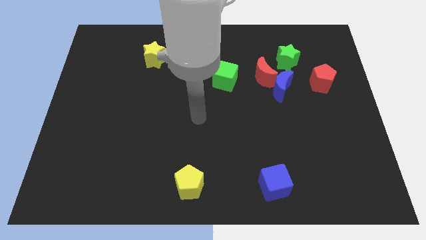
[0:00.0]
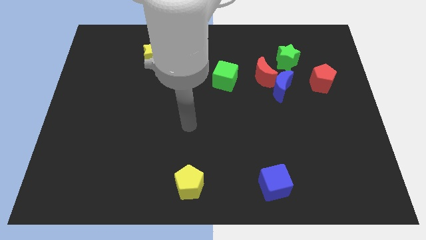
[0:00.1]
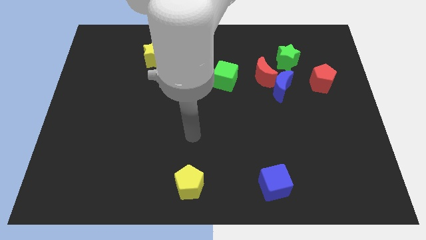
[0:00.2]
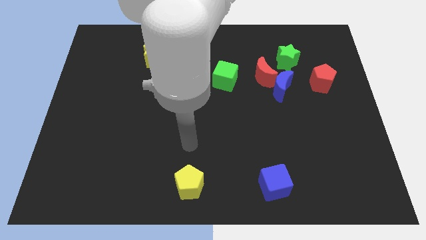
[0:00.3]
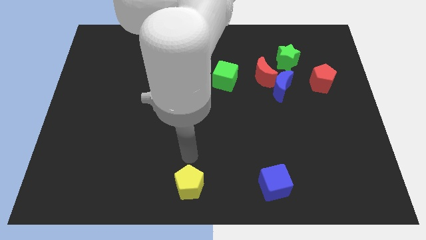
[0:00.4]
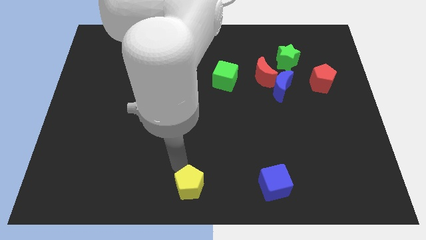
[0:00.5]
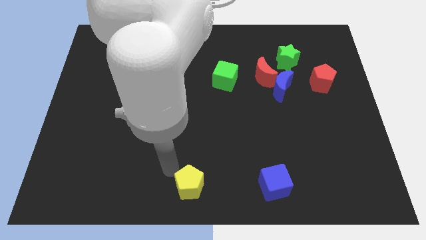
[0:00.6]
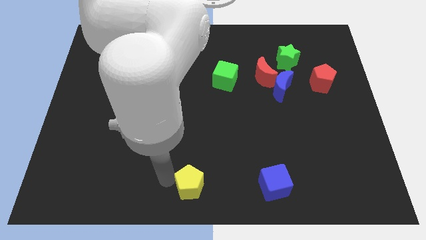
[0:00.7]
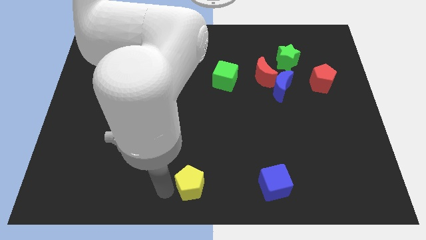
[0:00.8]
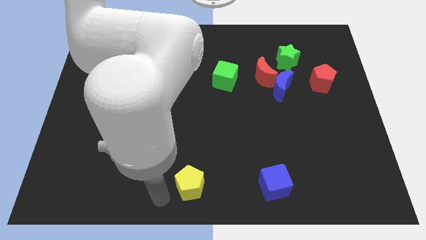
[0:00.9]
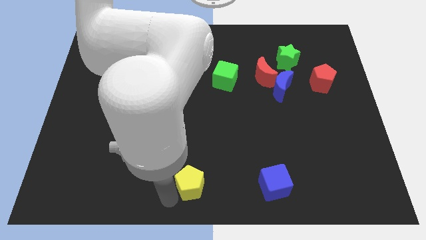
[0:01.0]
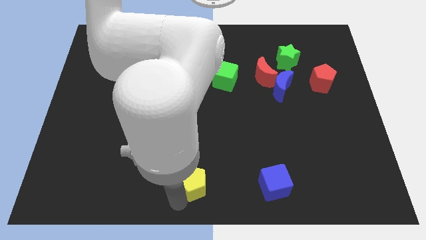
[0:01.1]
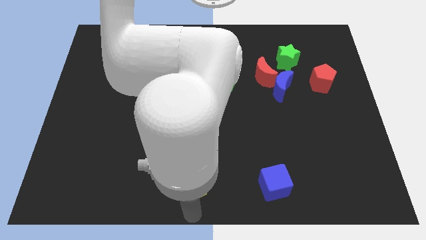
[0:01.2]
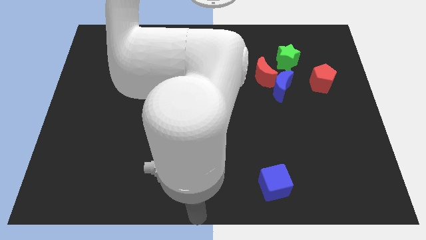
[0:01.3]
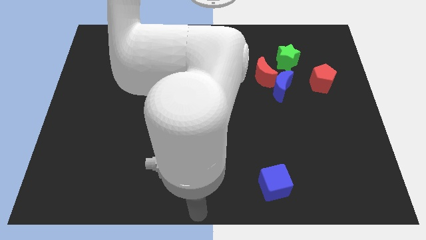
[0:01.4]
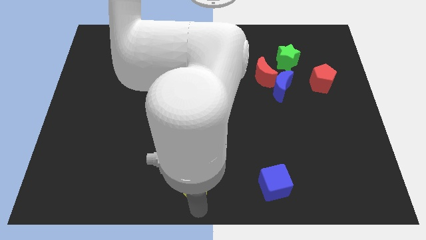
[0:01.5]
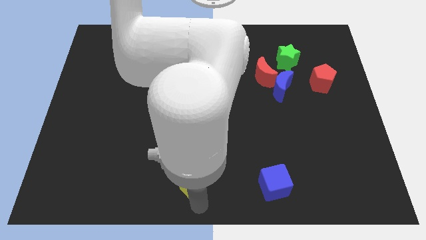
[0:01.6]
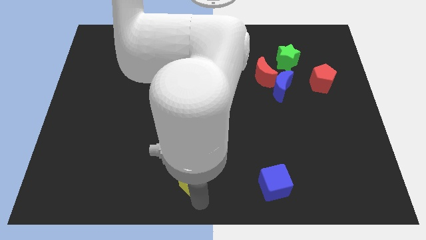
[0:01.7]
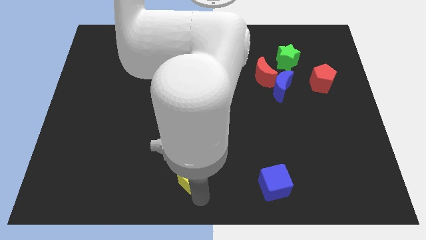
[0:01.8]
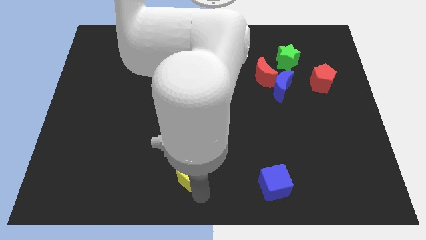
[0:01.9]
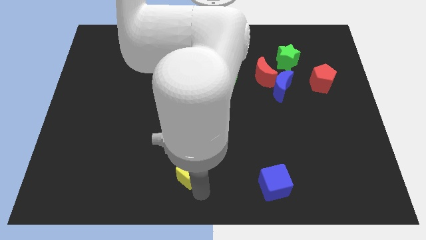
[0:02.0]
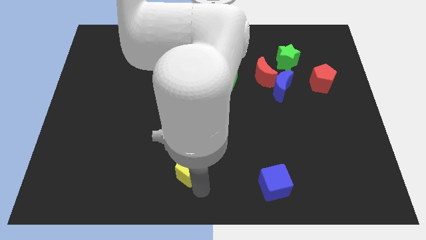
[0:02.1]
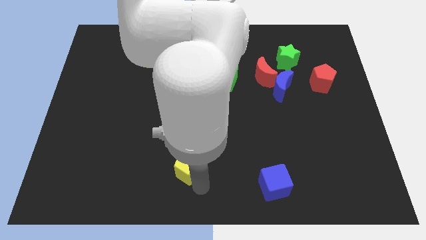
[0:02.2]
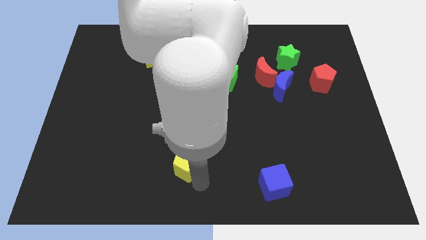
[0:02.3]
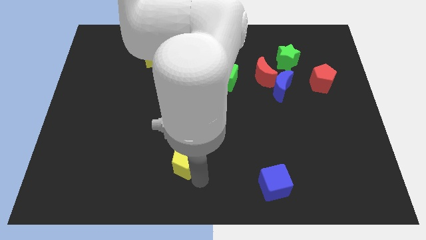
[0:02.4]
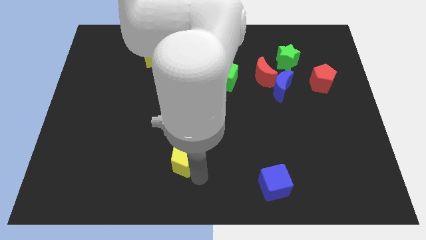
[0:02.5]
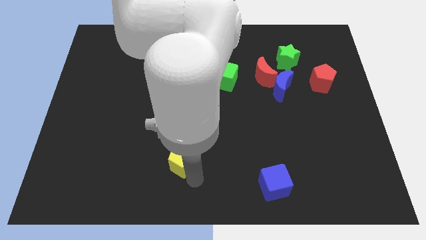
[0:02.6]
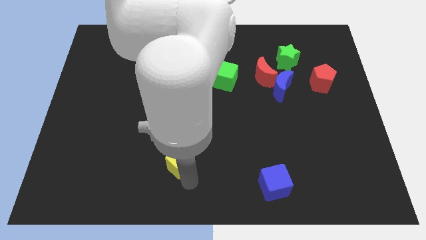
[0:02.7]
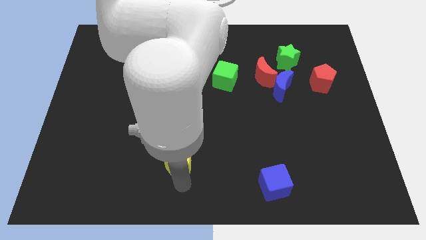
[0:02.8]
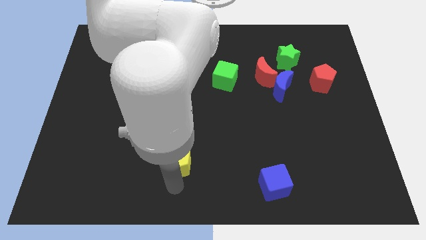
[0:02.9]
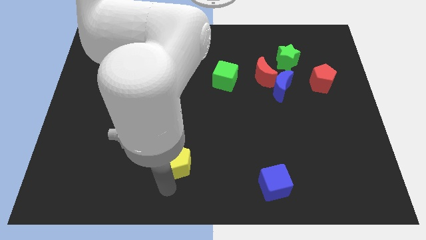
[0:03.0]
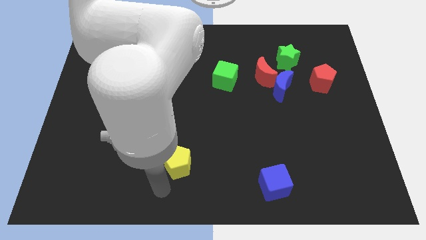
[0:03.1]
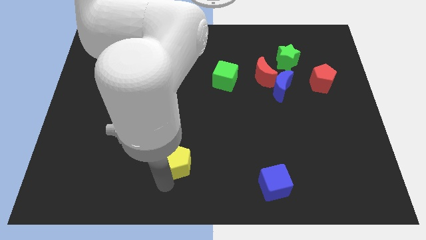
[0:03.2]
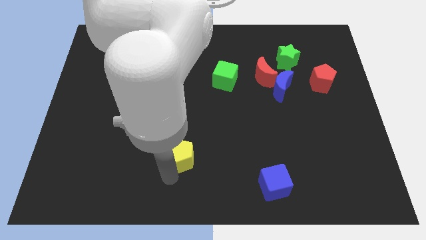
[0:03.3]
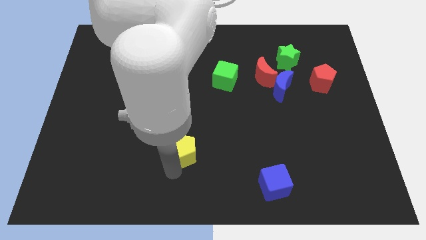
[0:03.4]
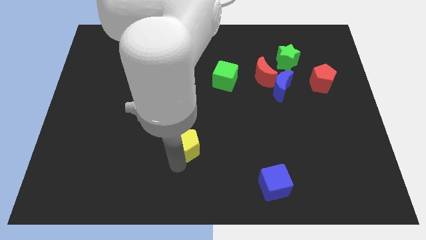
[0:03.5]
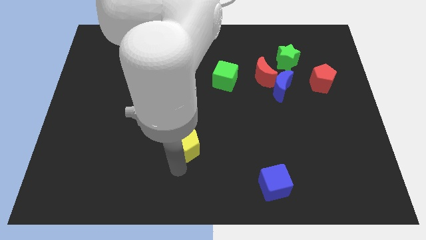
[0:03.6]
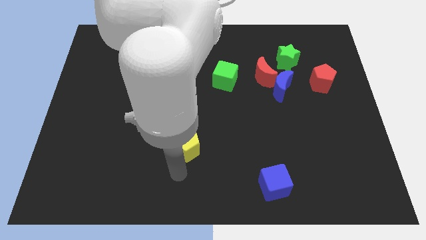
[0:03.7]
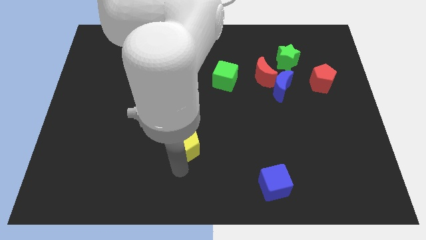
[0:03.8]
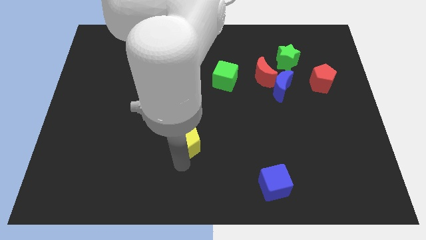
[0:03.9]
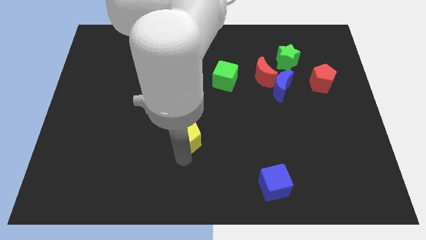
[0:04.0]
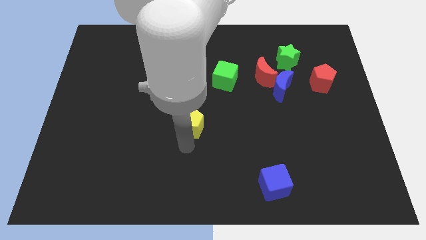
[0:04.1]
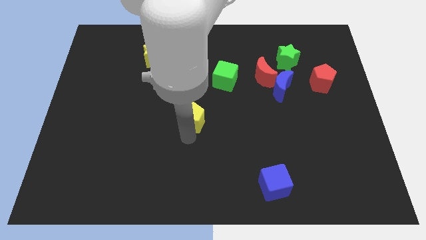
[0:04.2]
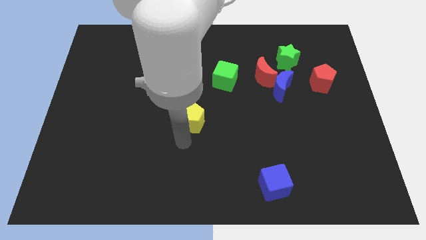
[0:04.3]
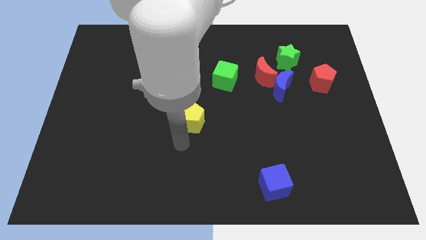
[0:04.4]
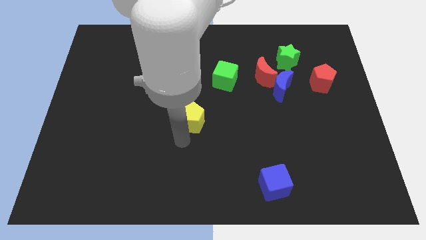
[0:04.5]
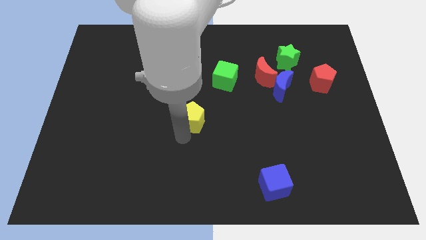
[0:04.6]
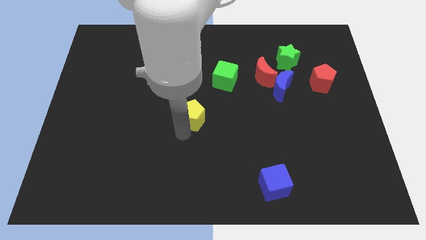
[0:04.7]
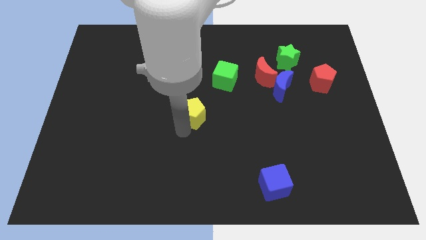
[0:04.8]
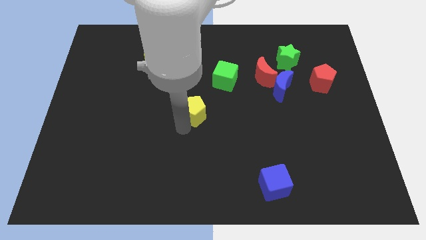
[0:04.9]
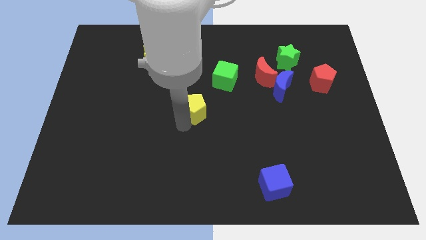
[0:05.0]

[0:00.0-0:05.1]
push the yellow pentagon diagonally down and to the left of the green cube

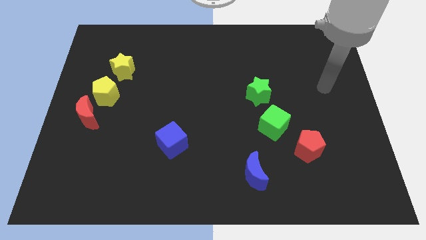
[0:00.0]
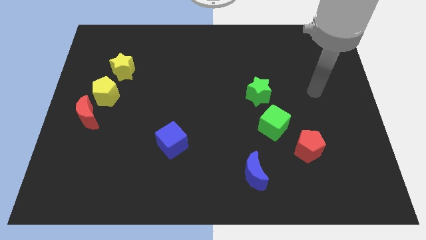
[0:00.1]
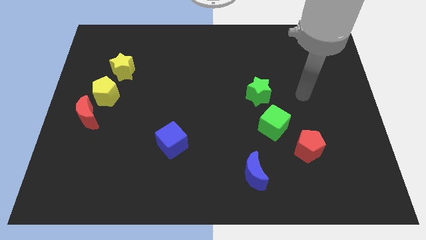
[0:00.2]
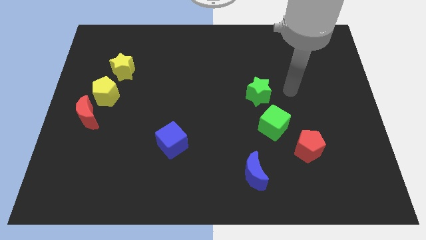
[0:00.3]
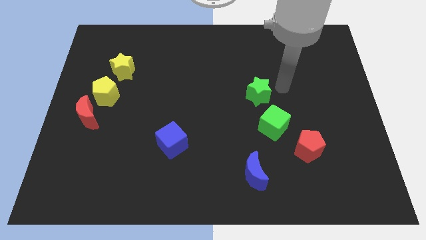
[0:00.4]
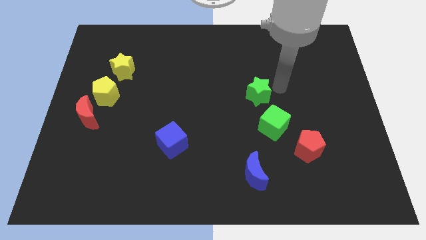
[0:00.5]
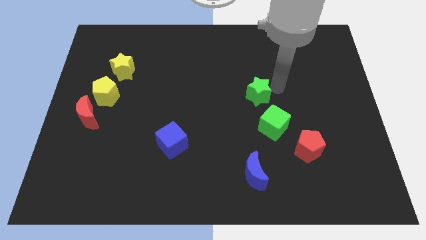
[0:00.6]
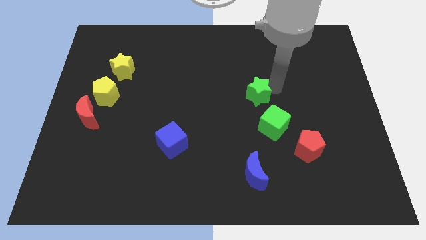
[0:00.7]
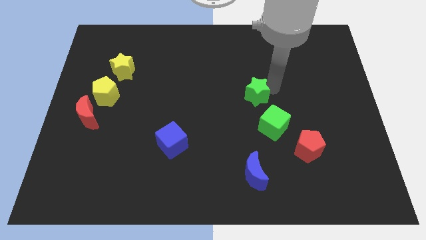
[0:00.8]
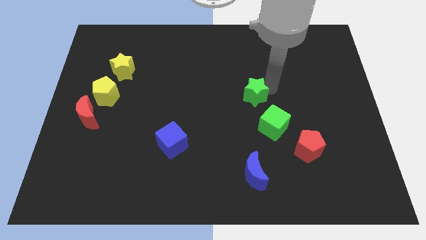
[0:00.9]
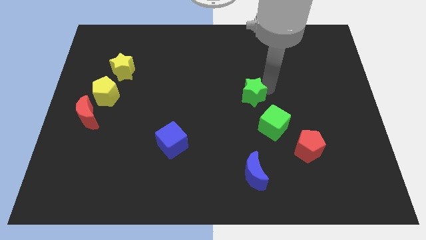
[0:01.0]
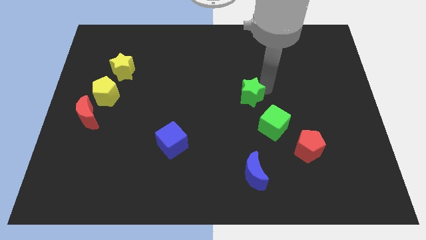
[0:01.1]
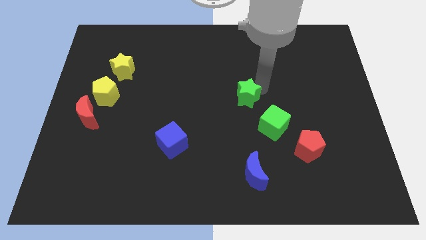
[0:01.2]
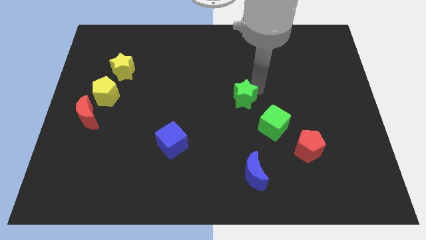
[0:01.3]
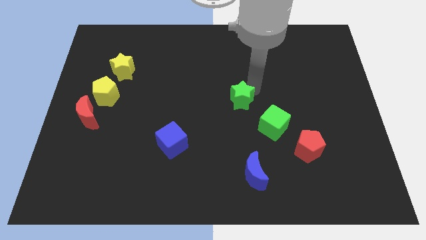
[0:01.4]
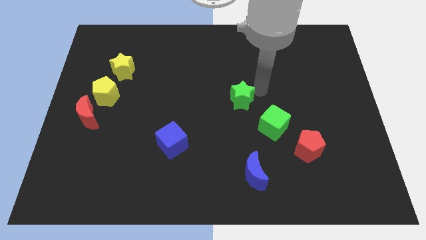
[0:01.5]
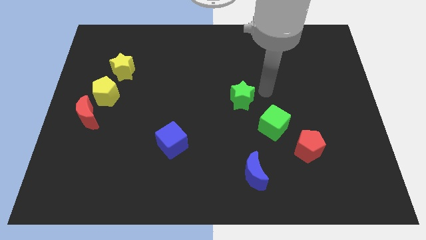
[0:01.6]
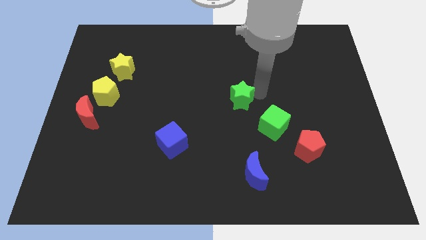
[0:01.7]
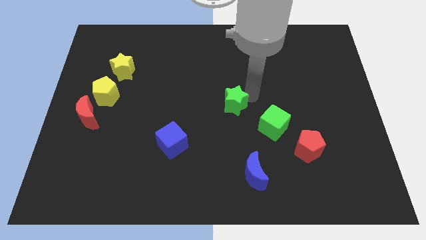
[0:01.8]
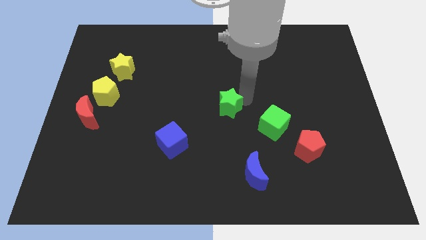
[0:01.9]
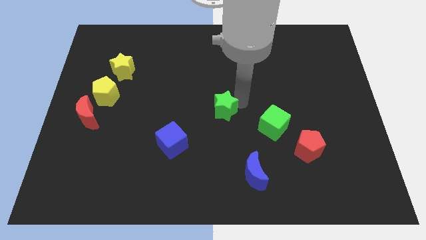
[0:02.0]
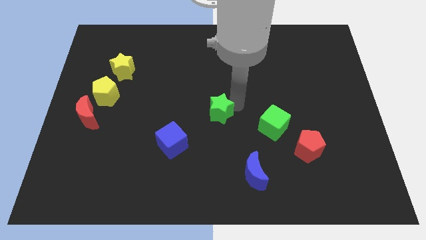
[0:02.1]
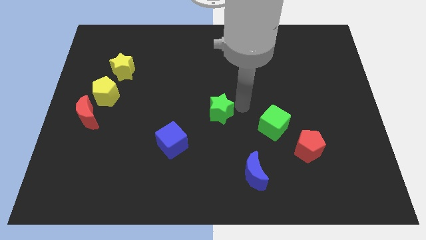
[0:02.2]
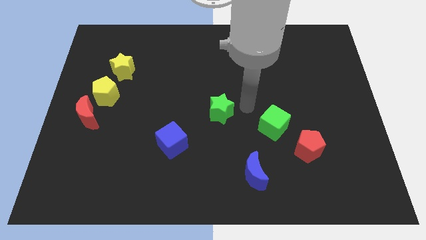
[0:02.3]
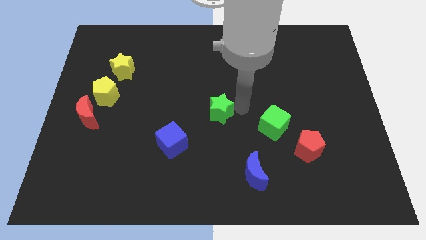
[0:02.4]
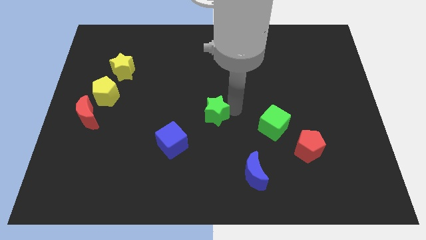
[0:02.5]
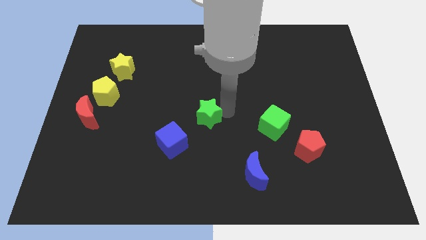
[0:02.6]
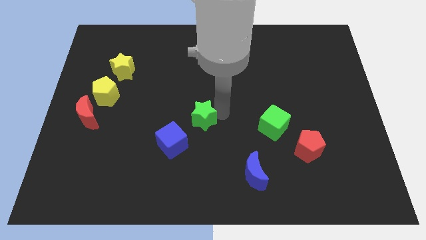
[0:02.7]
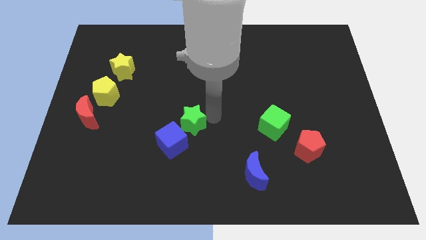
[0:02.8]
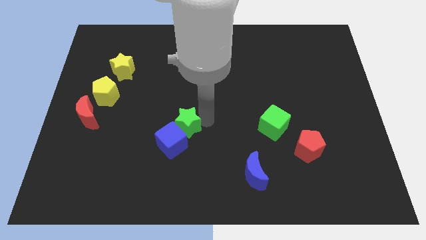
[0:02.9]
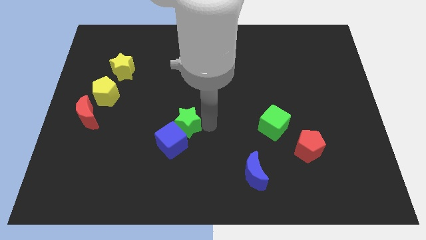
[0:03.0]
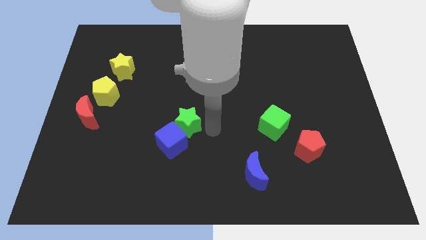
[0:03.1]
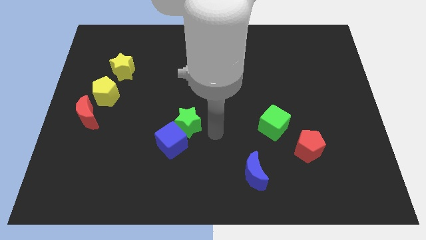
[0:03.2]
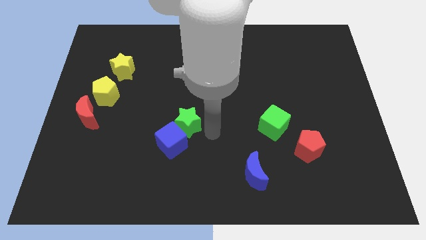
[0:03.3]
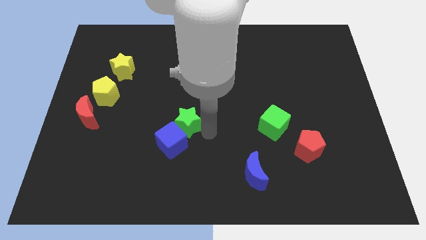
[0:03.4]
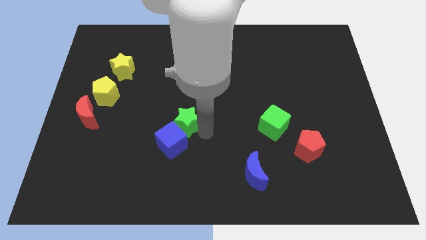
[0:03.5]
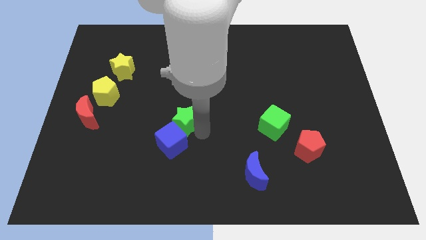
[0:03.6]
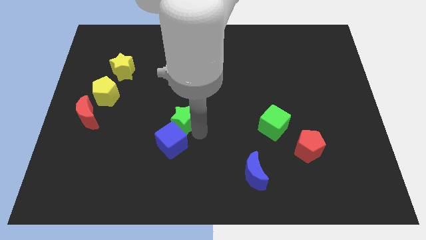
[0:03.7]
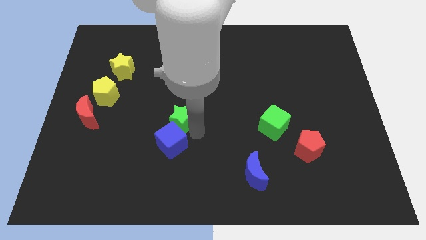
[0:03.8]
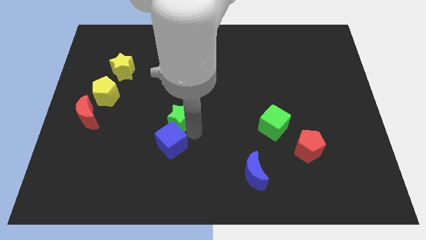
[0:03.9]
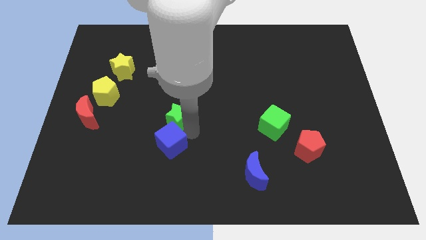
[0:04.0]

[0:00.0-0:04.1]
move the green star to the top left of the blue cube
